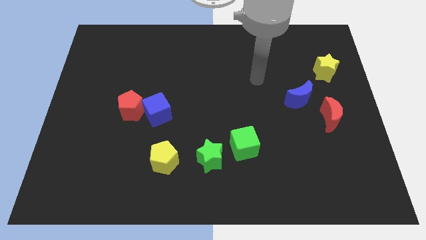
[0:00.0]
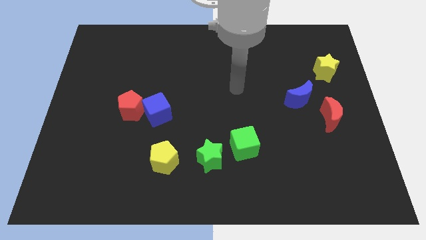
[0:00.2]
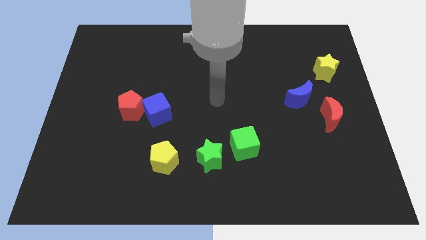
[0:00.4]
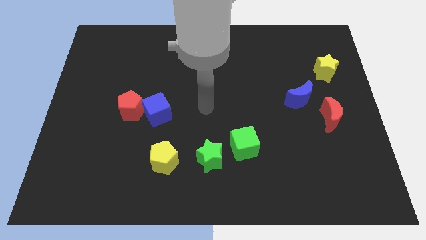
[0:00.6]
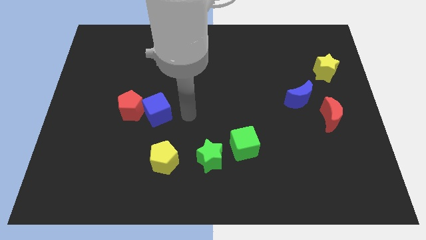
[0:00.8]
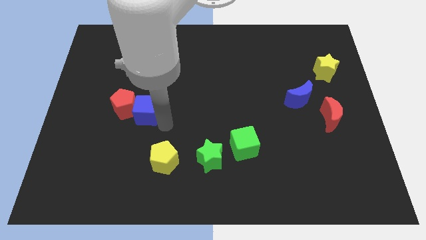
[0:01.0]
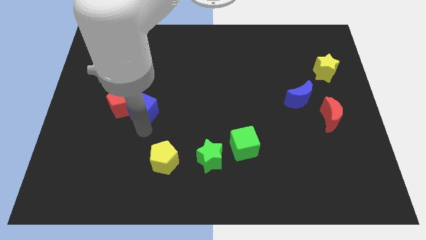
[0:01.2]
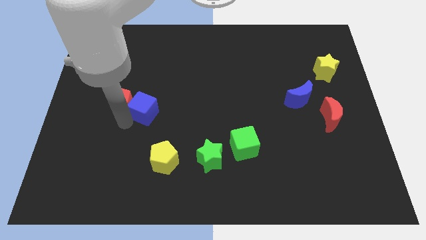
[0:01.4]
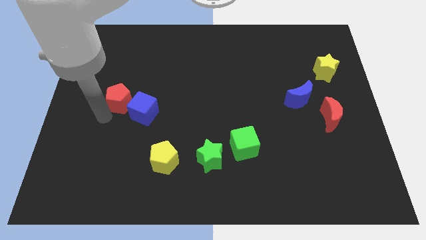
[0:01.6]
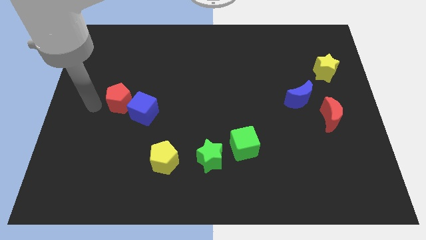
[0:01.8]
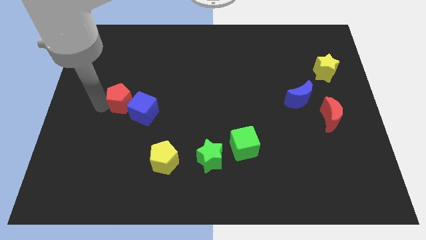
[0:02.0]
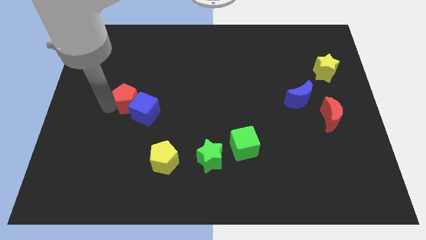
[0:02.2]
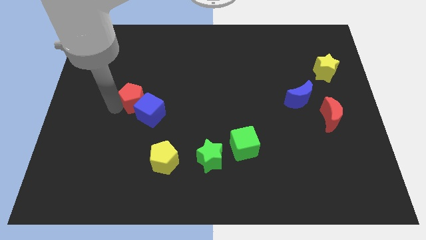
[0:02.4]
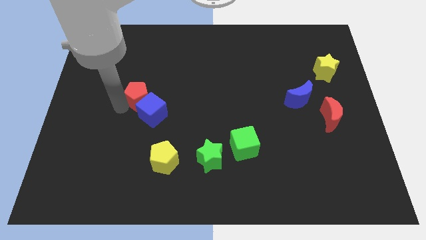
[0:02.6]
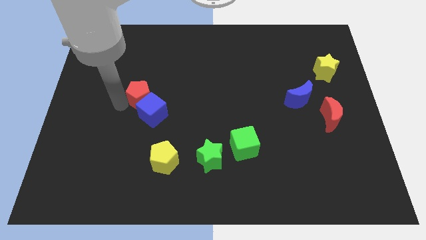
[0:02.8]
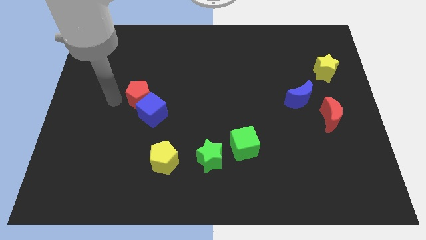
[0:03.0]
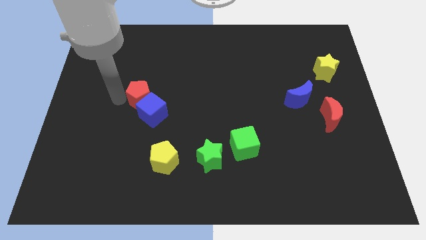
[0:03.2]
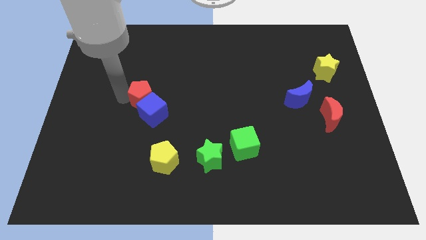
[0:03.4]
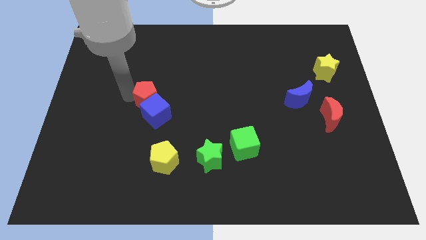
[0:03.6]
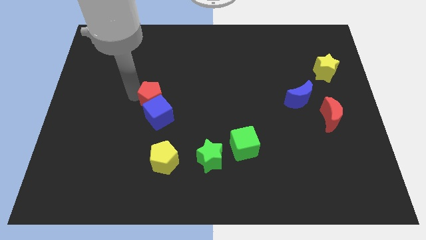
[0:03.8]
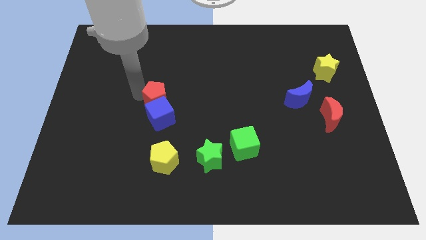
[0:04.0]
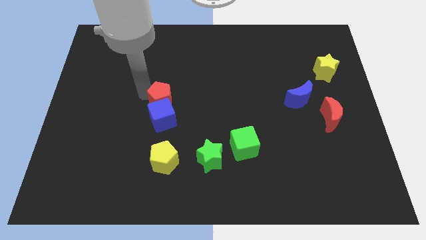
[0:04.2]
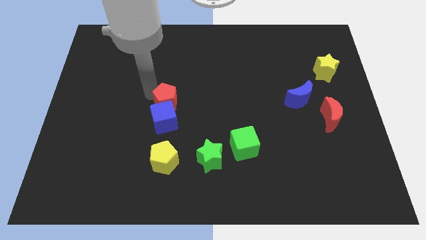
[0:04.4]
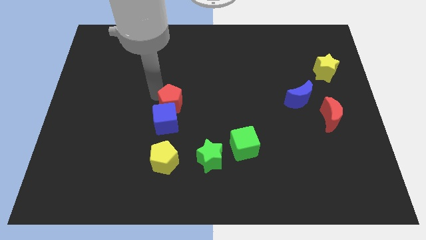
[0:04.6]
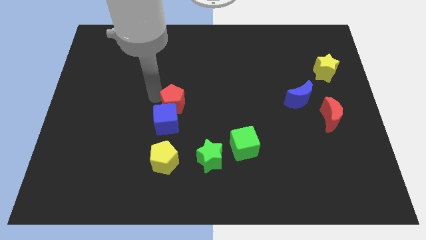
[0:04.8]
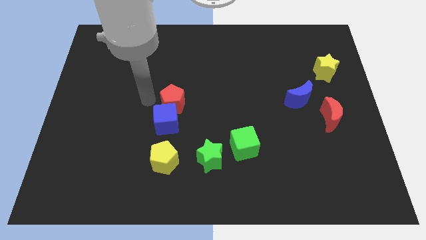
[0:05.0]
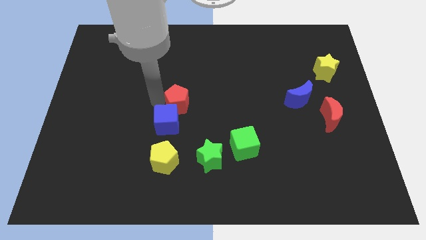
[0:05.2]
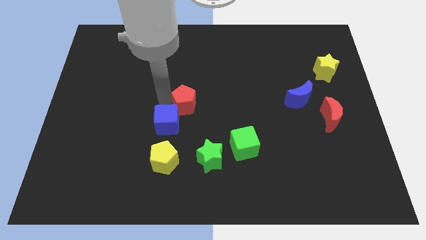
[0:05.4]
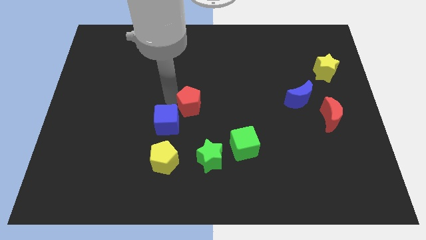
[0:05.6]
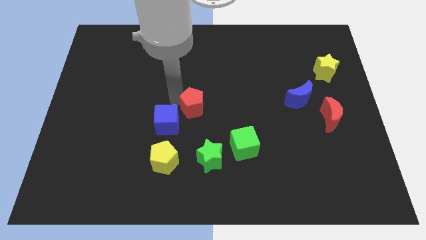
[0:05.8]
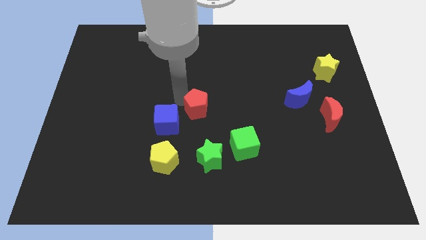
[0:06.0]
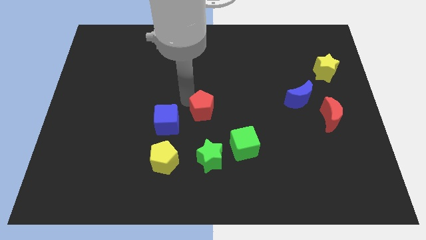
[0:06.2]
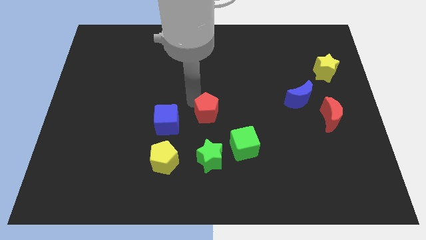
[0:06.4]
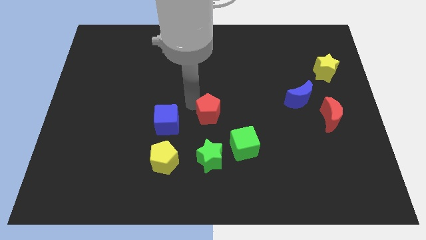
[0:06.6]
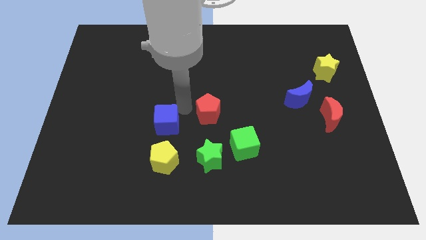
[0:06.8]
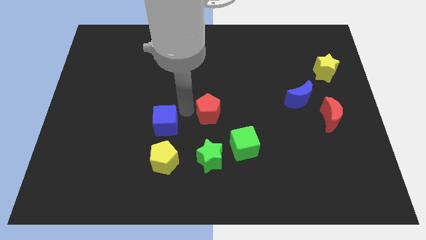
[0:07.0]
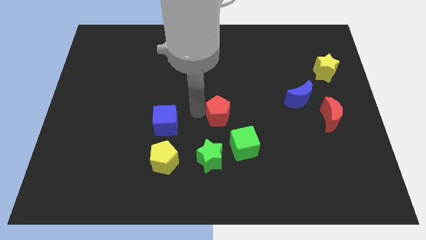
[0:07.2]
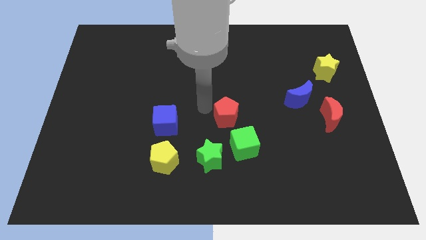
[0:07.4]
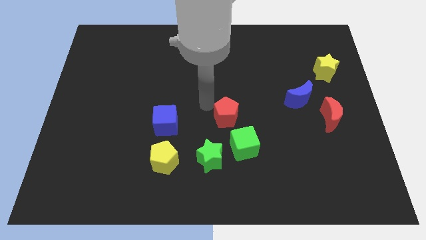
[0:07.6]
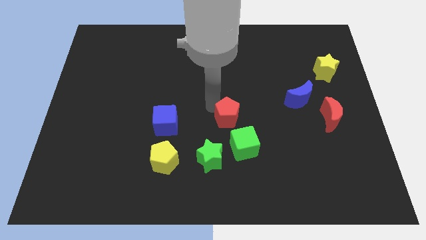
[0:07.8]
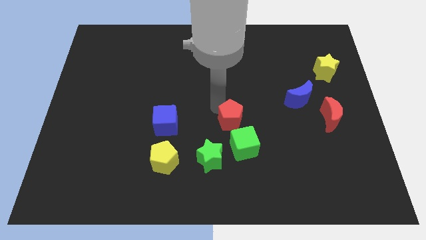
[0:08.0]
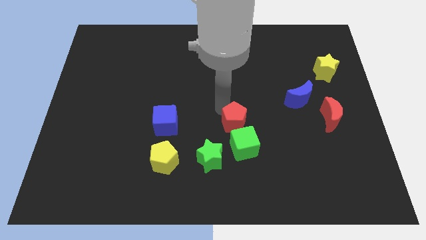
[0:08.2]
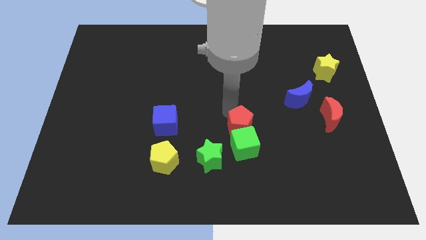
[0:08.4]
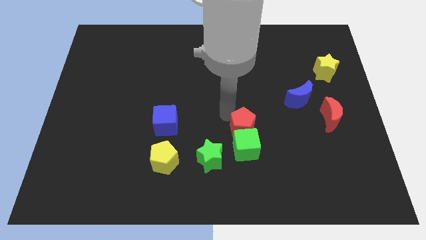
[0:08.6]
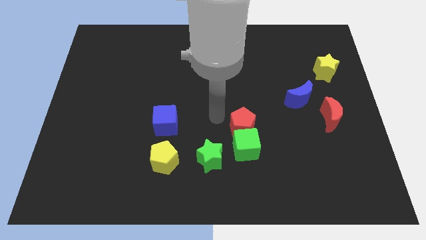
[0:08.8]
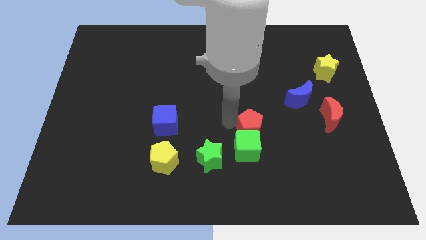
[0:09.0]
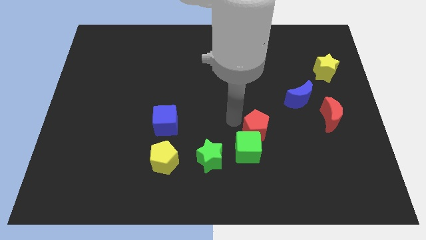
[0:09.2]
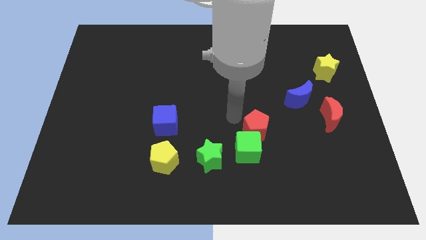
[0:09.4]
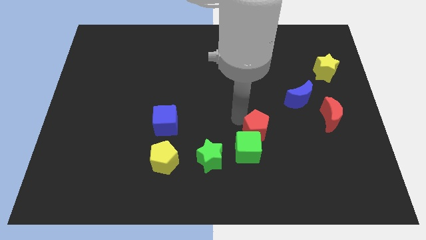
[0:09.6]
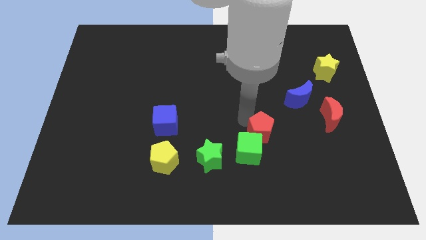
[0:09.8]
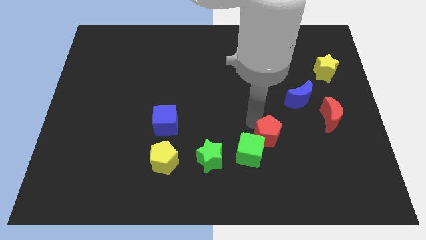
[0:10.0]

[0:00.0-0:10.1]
push the red pentagon to the right of the green cube

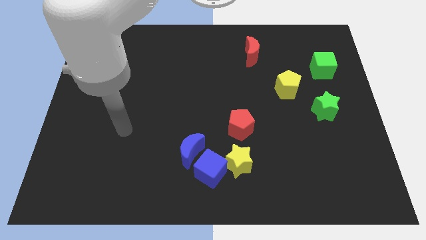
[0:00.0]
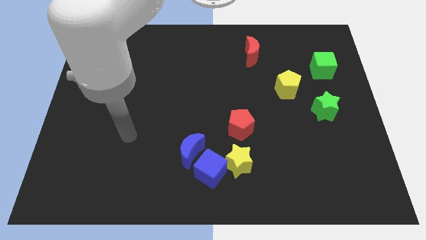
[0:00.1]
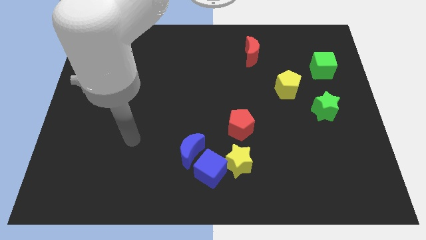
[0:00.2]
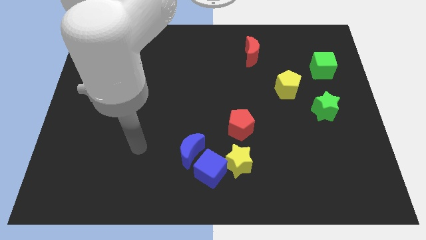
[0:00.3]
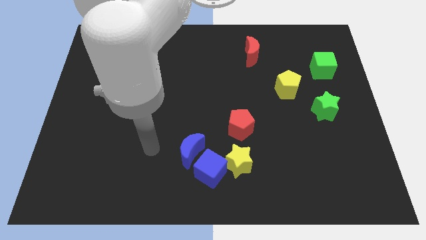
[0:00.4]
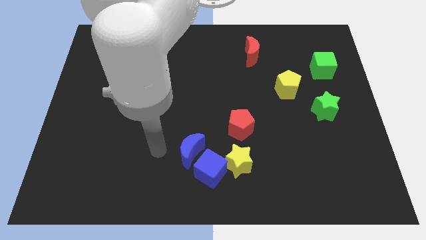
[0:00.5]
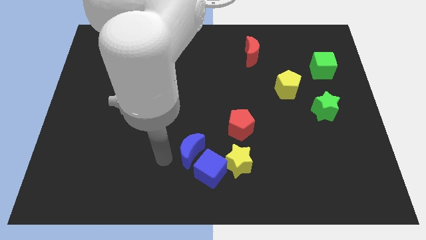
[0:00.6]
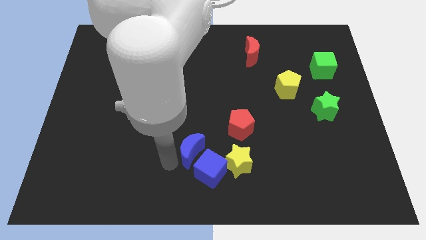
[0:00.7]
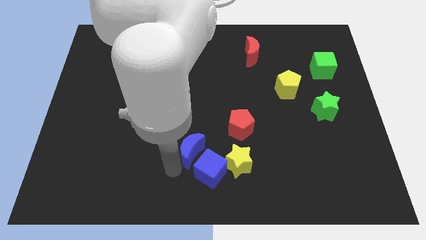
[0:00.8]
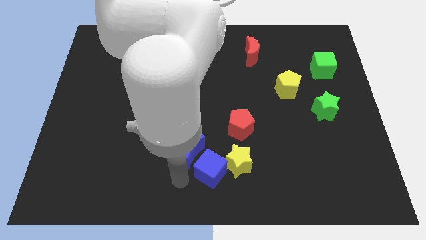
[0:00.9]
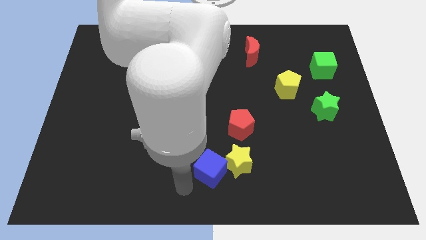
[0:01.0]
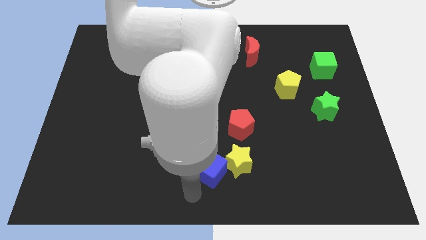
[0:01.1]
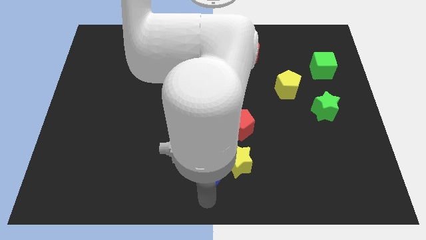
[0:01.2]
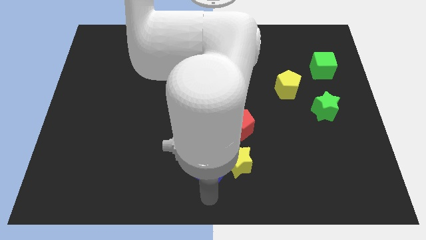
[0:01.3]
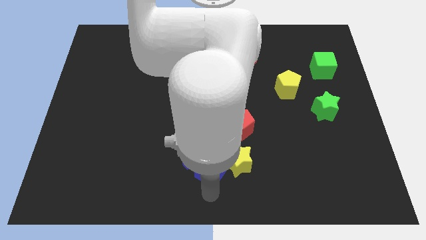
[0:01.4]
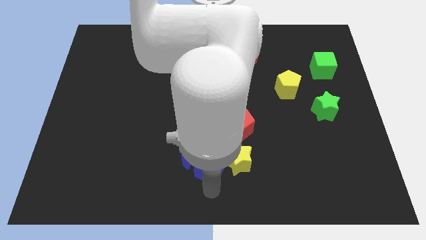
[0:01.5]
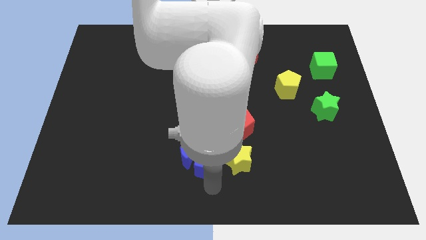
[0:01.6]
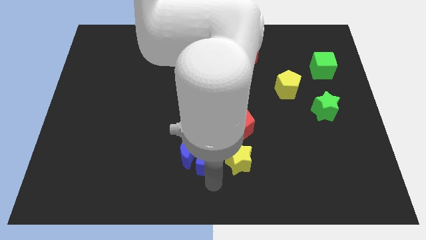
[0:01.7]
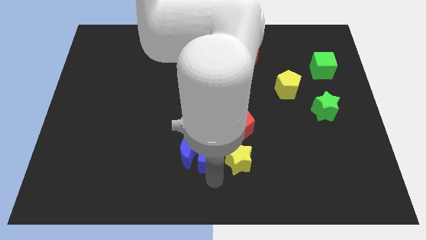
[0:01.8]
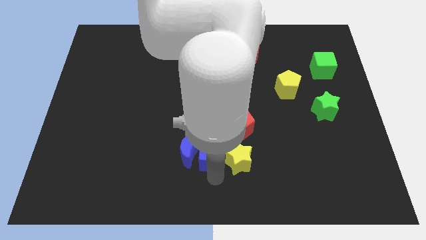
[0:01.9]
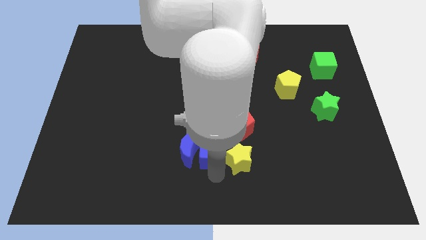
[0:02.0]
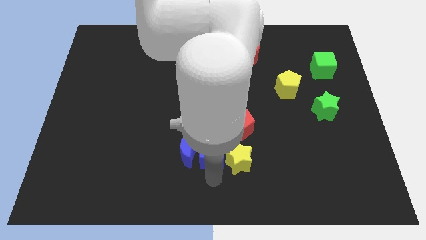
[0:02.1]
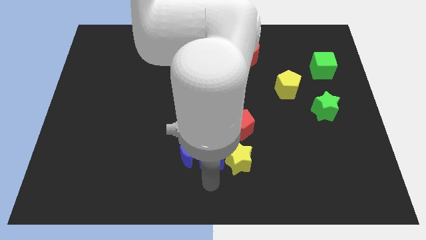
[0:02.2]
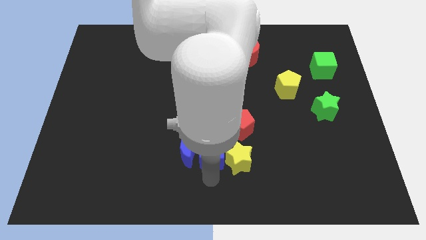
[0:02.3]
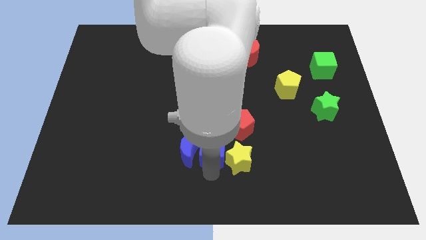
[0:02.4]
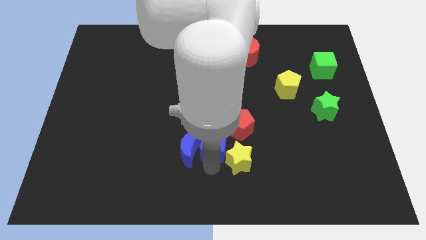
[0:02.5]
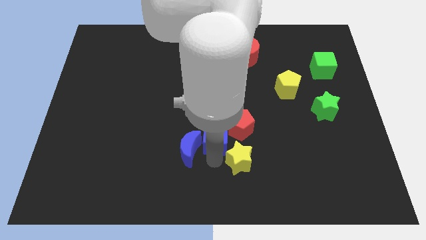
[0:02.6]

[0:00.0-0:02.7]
put the blue cube left of the red pentagon
